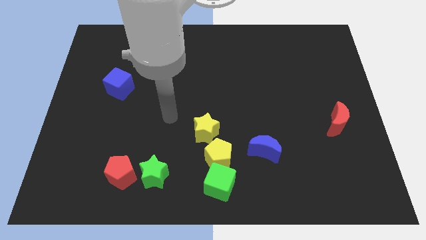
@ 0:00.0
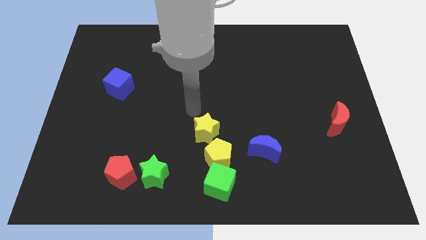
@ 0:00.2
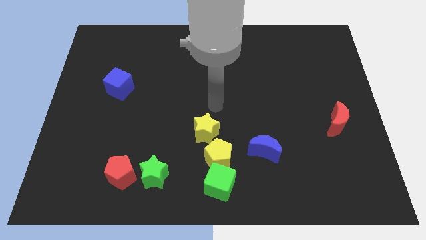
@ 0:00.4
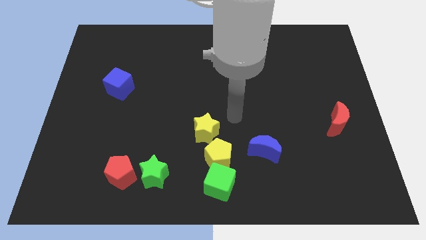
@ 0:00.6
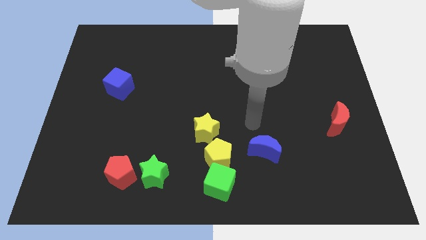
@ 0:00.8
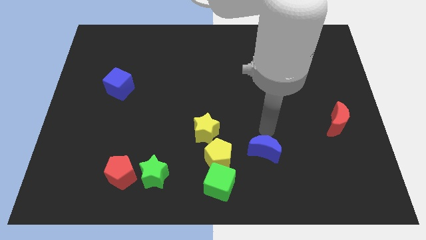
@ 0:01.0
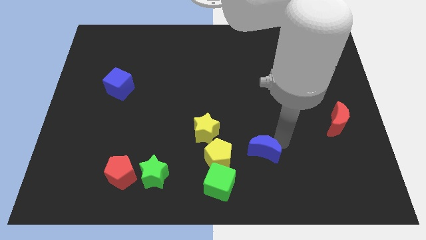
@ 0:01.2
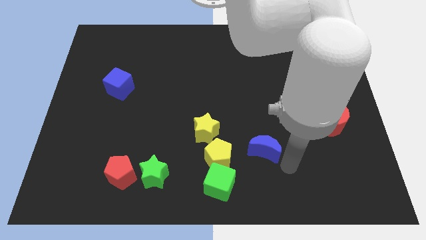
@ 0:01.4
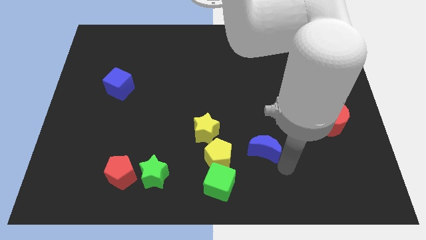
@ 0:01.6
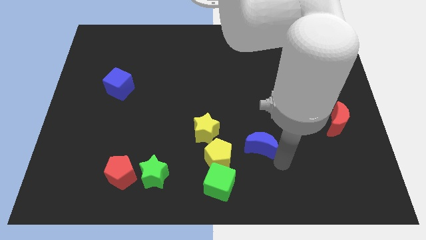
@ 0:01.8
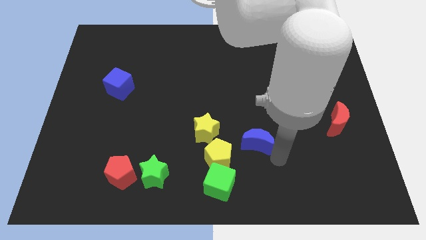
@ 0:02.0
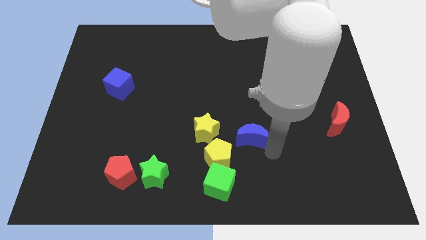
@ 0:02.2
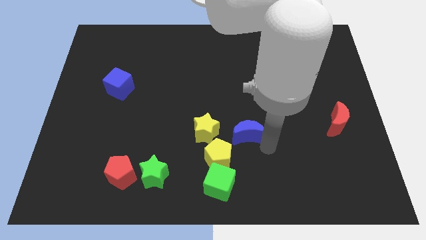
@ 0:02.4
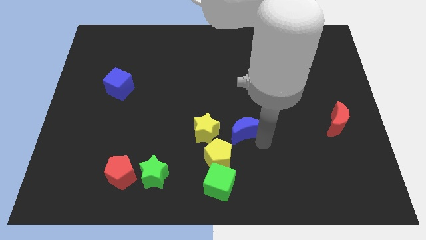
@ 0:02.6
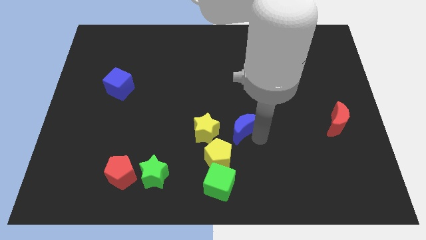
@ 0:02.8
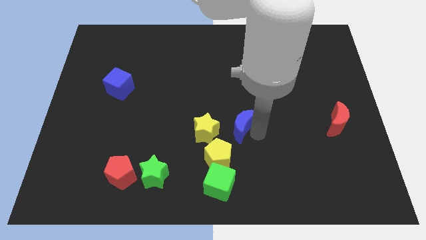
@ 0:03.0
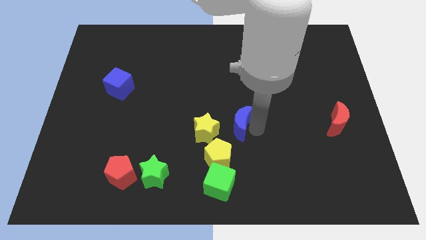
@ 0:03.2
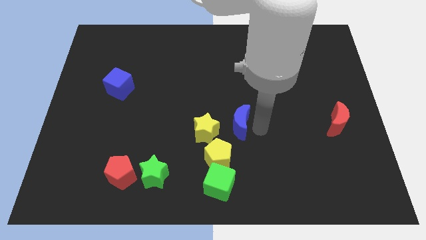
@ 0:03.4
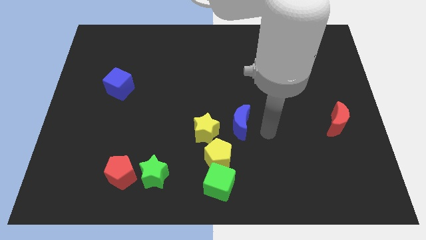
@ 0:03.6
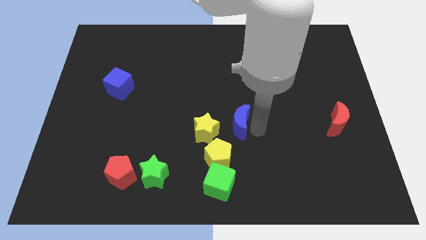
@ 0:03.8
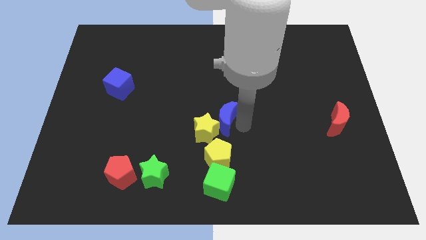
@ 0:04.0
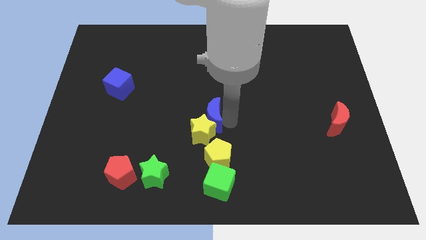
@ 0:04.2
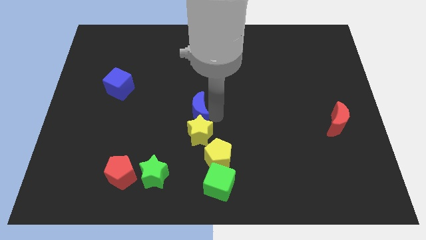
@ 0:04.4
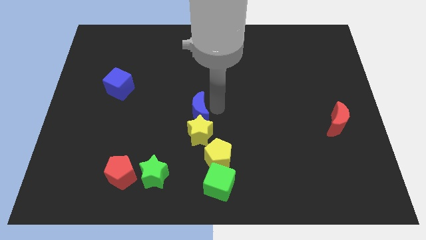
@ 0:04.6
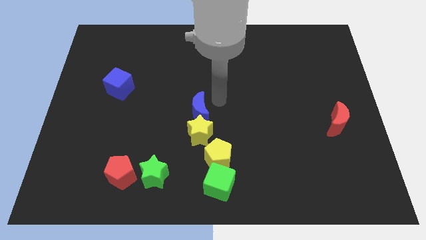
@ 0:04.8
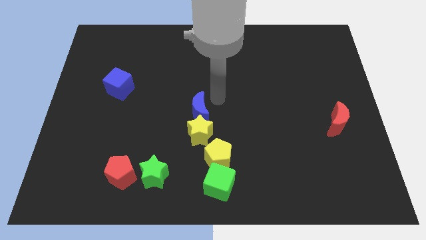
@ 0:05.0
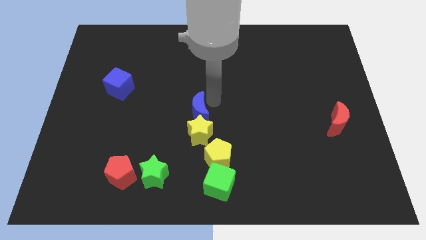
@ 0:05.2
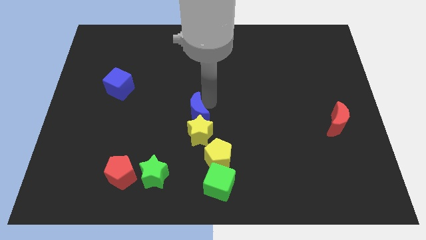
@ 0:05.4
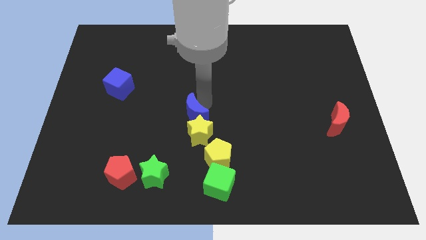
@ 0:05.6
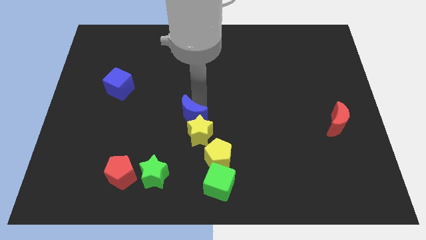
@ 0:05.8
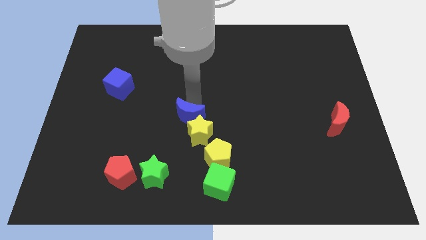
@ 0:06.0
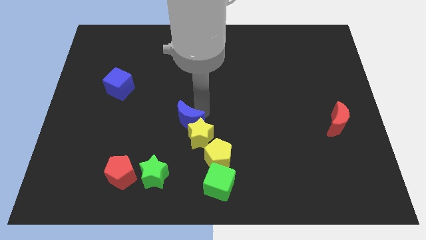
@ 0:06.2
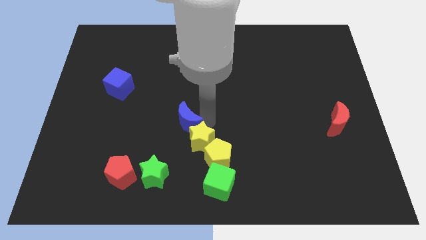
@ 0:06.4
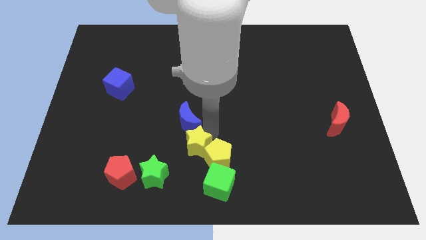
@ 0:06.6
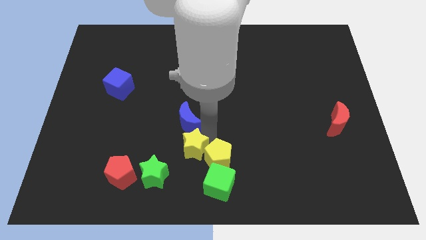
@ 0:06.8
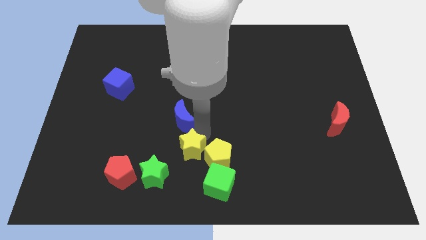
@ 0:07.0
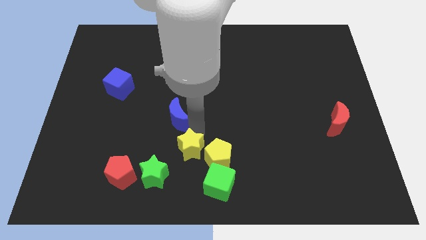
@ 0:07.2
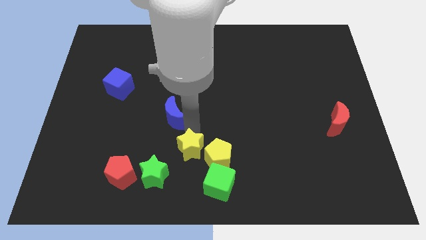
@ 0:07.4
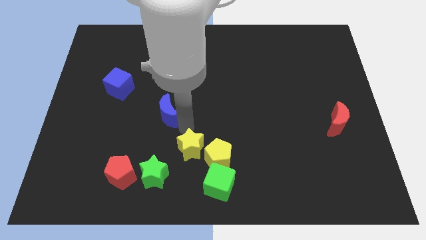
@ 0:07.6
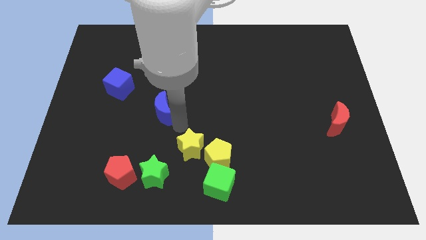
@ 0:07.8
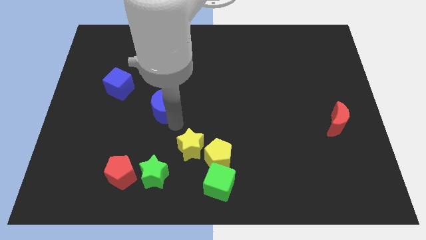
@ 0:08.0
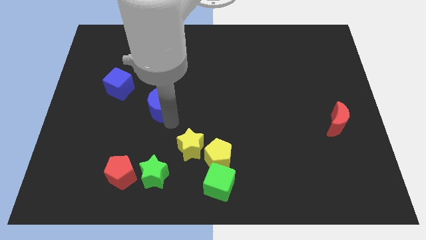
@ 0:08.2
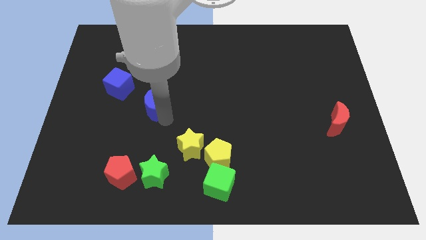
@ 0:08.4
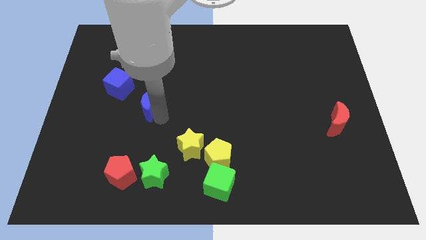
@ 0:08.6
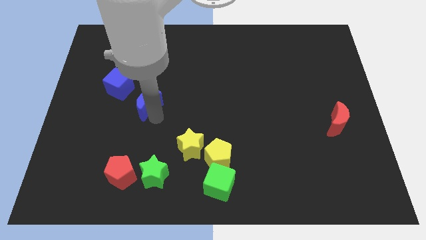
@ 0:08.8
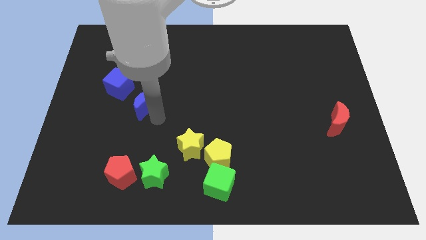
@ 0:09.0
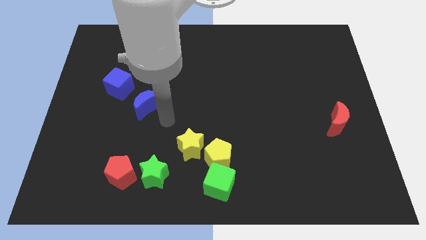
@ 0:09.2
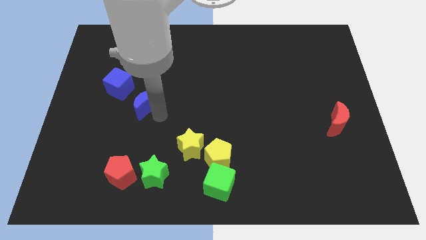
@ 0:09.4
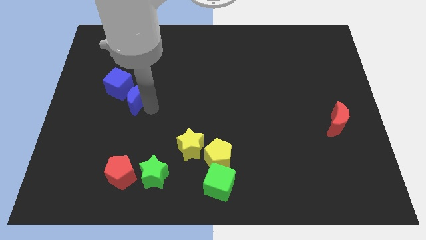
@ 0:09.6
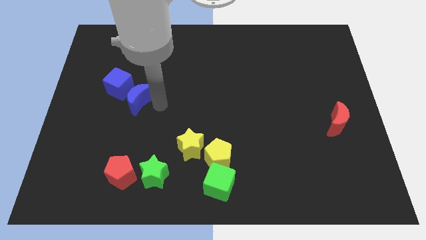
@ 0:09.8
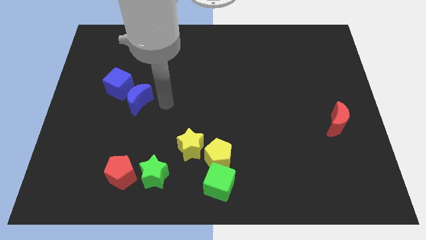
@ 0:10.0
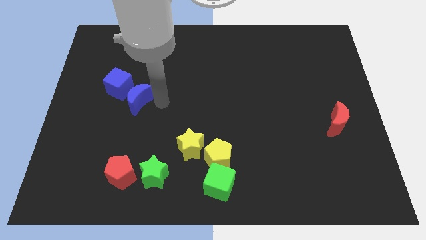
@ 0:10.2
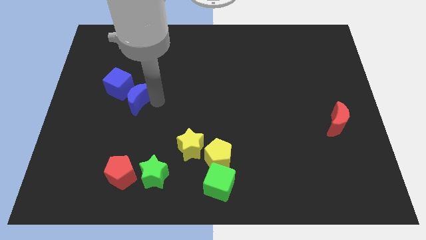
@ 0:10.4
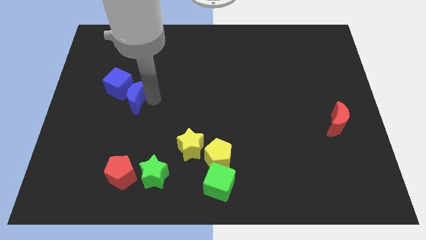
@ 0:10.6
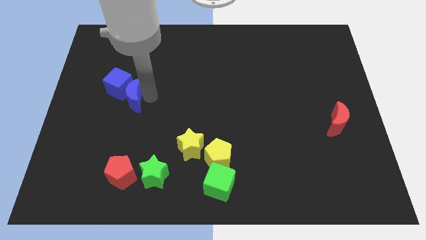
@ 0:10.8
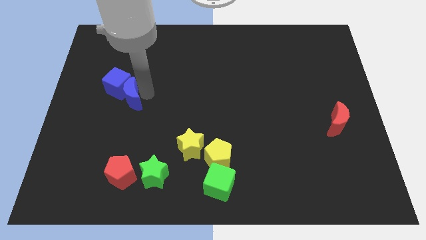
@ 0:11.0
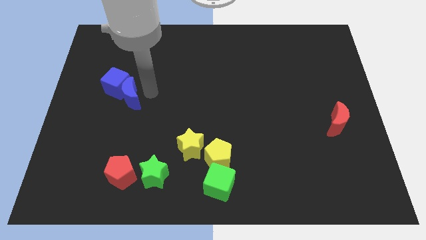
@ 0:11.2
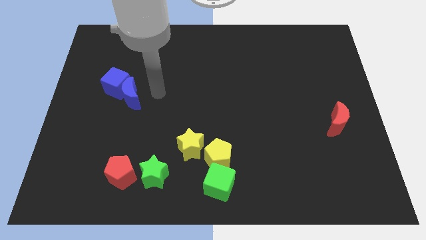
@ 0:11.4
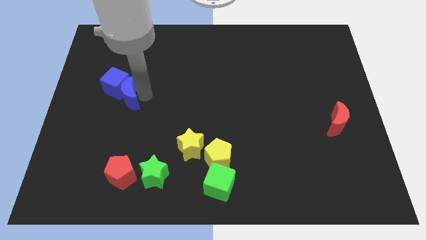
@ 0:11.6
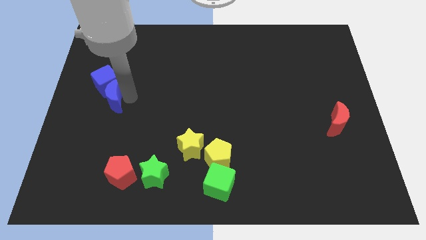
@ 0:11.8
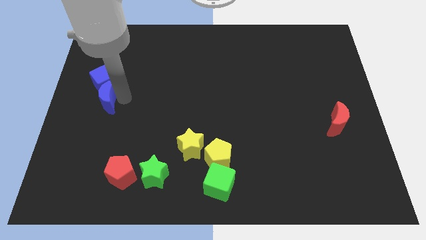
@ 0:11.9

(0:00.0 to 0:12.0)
put the blue moon to the left side of the board

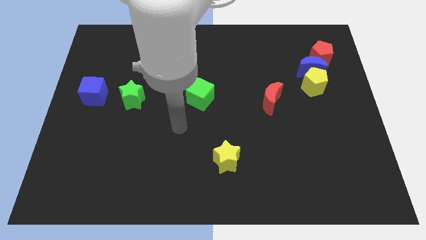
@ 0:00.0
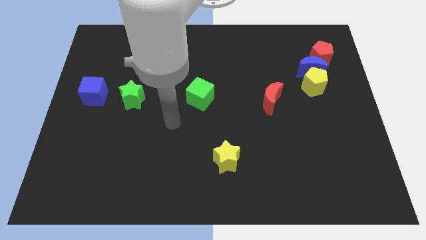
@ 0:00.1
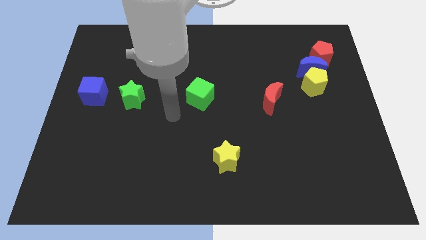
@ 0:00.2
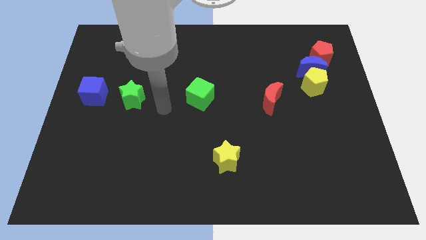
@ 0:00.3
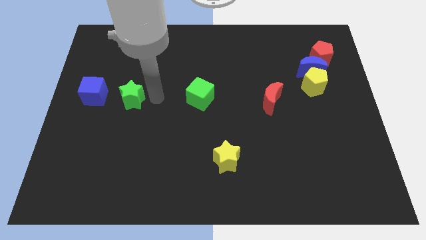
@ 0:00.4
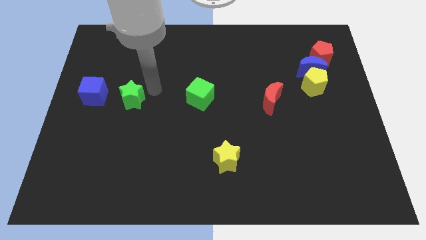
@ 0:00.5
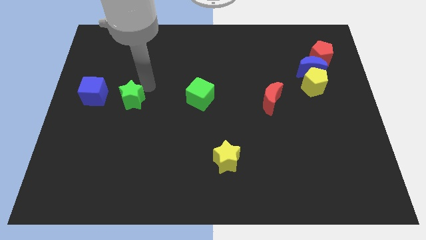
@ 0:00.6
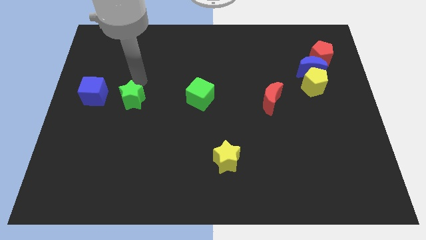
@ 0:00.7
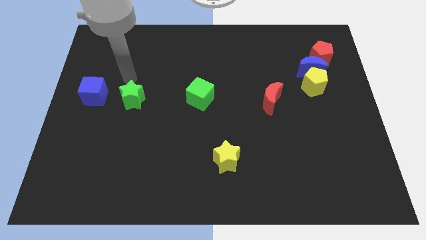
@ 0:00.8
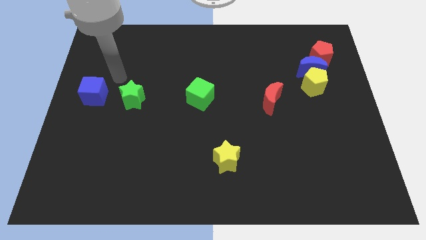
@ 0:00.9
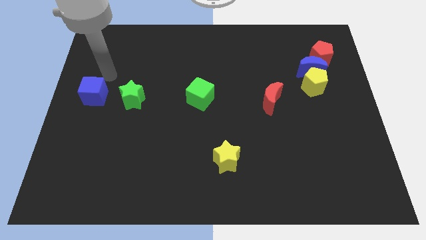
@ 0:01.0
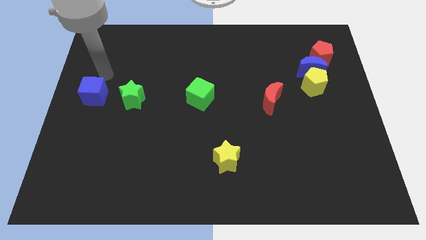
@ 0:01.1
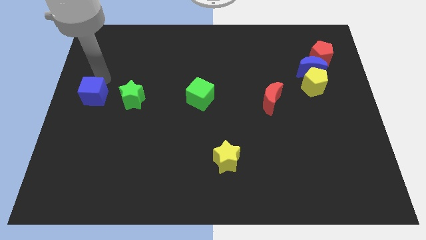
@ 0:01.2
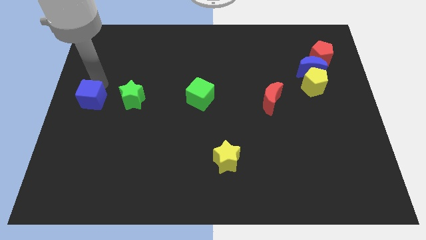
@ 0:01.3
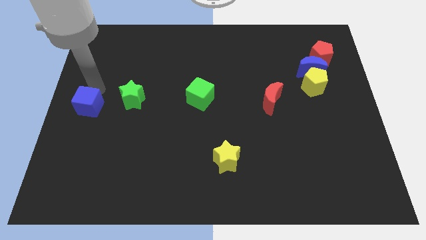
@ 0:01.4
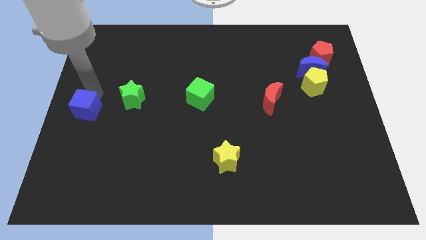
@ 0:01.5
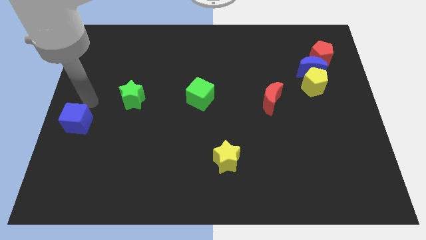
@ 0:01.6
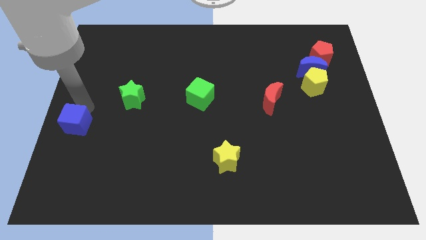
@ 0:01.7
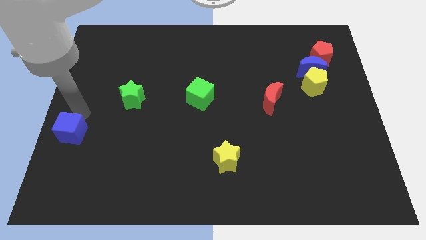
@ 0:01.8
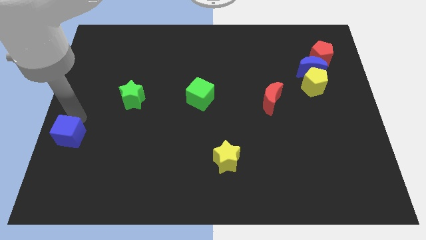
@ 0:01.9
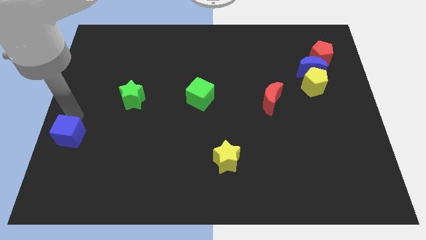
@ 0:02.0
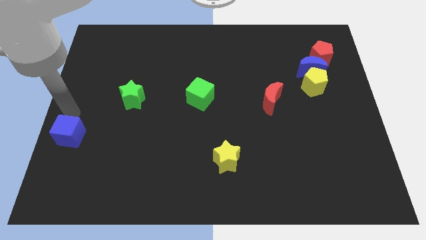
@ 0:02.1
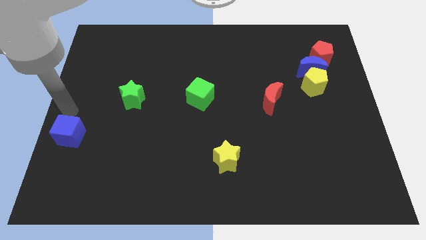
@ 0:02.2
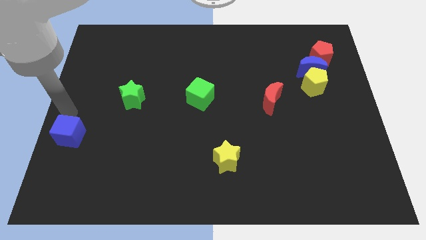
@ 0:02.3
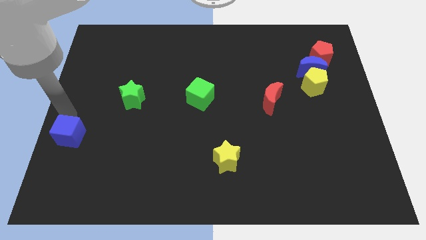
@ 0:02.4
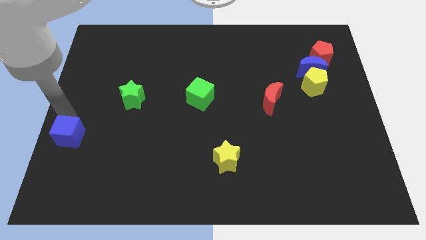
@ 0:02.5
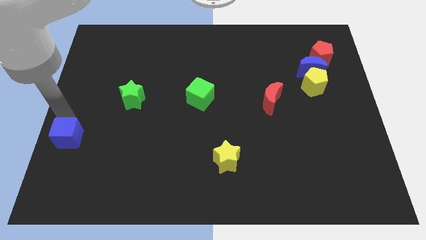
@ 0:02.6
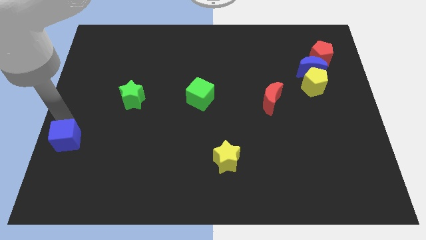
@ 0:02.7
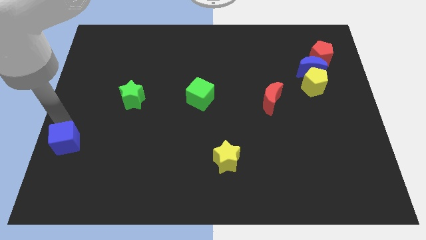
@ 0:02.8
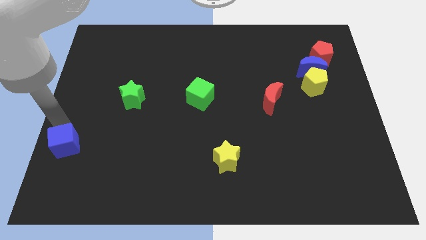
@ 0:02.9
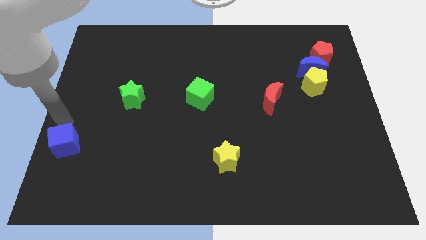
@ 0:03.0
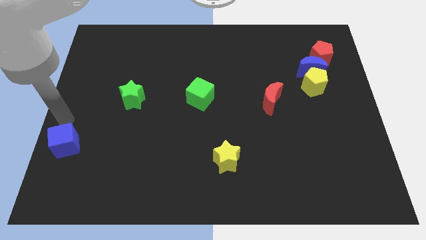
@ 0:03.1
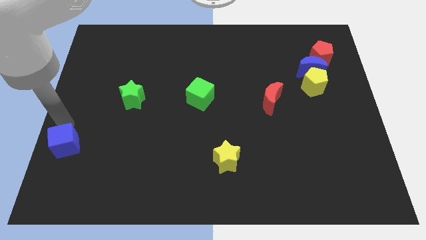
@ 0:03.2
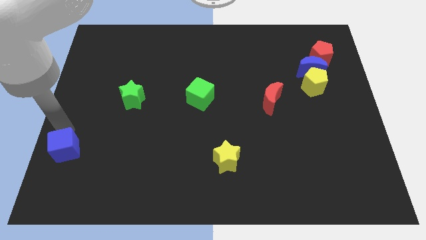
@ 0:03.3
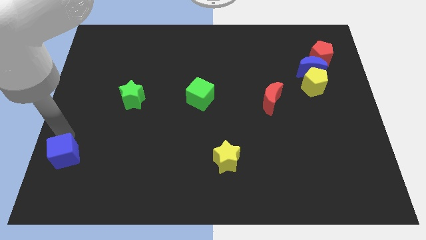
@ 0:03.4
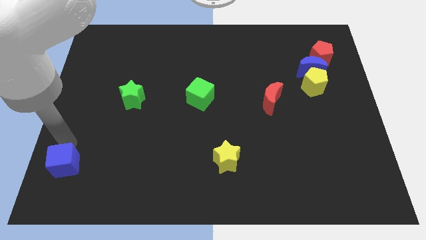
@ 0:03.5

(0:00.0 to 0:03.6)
put the blue cube to the bottom left corner
